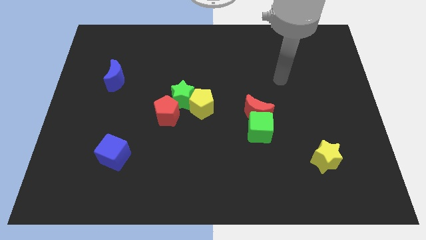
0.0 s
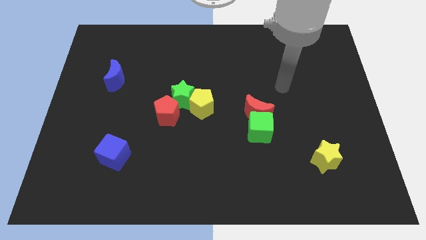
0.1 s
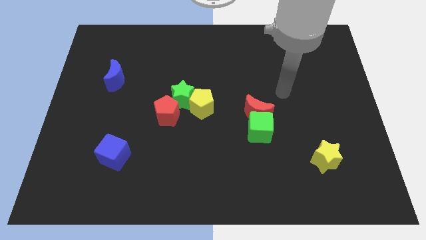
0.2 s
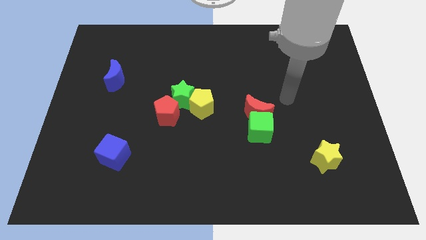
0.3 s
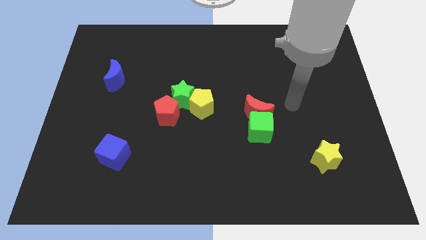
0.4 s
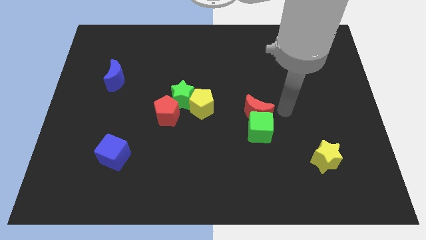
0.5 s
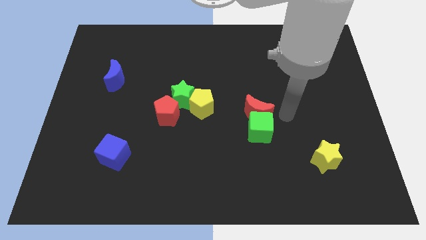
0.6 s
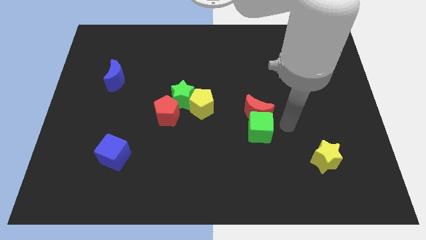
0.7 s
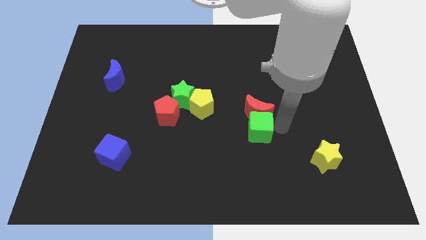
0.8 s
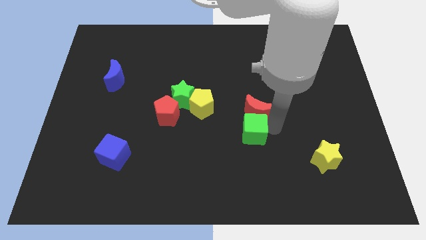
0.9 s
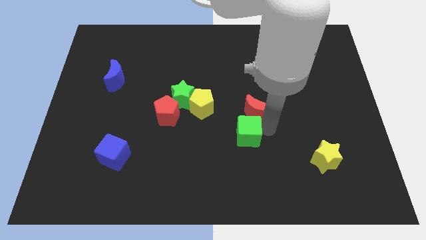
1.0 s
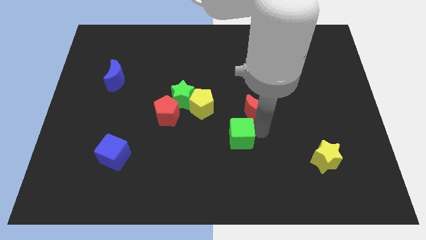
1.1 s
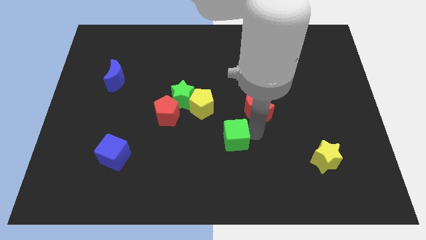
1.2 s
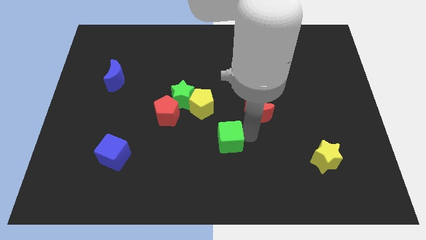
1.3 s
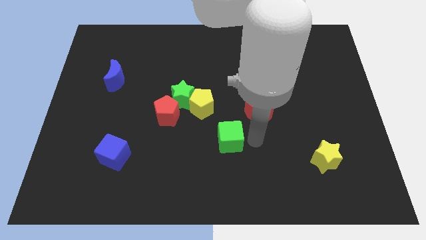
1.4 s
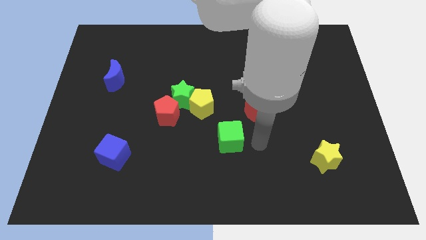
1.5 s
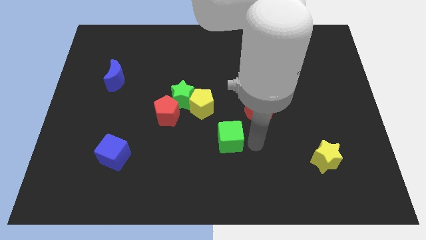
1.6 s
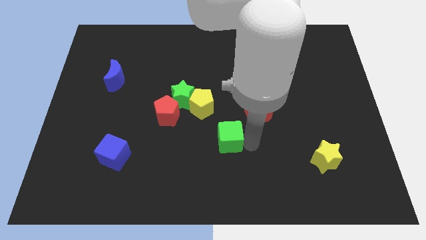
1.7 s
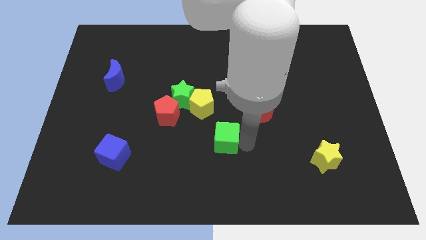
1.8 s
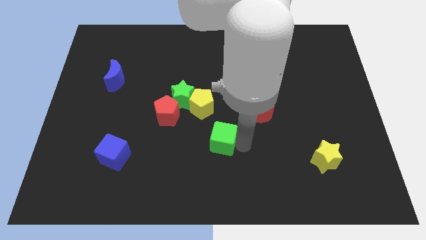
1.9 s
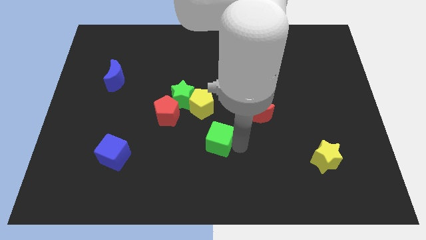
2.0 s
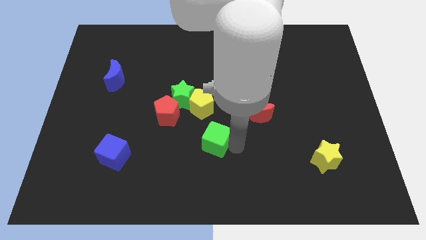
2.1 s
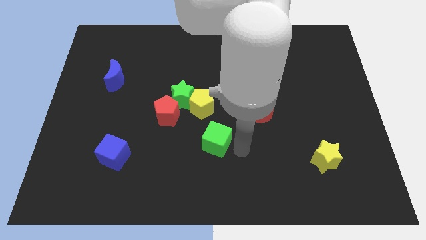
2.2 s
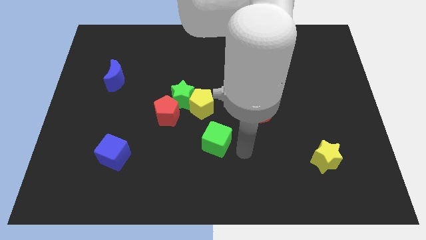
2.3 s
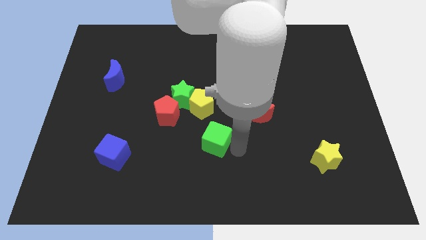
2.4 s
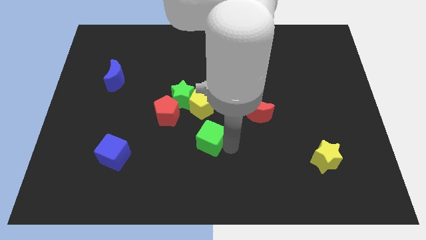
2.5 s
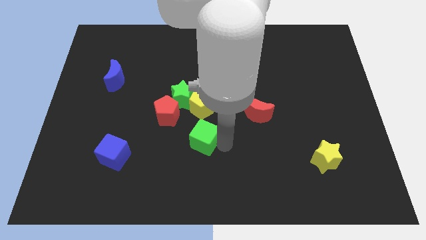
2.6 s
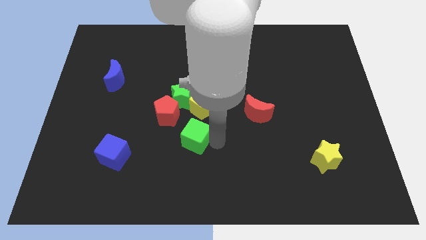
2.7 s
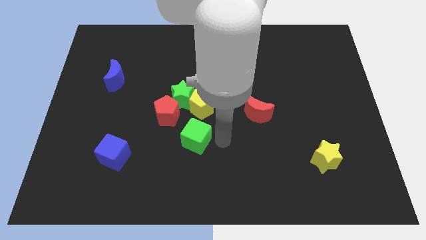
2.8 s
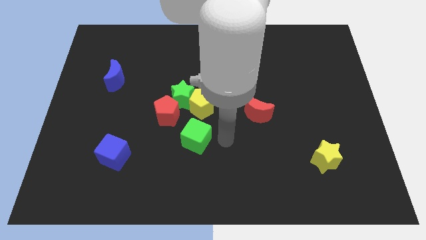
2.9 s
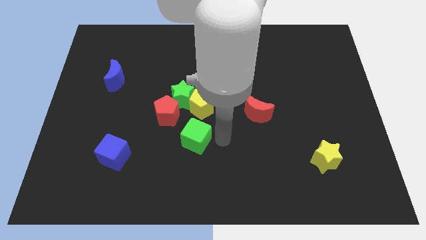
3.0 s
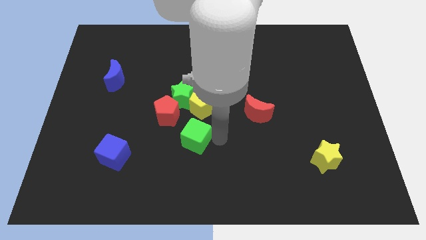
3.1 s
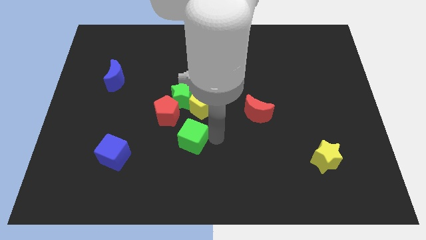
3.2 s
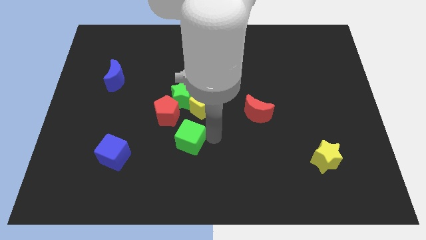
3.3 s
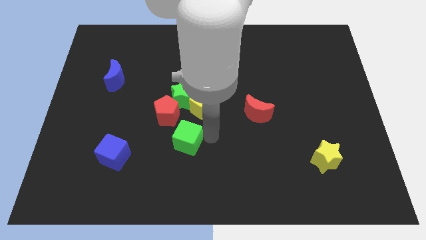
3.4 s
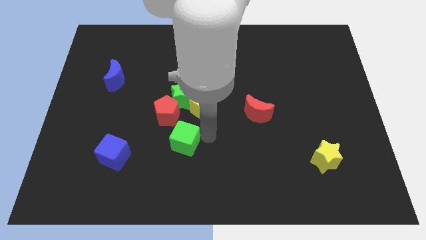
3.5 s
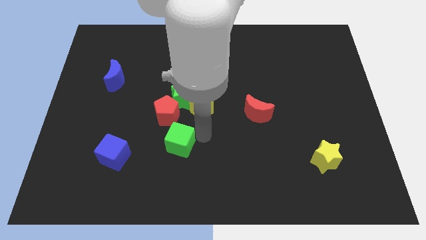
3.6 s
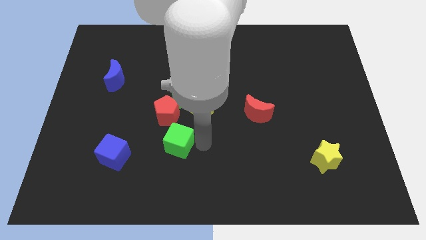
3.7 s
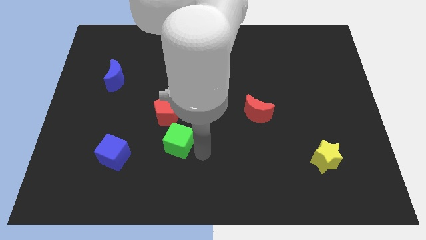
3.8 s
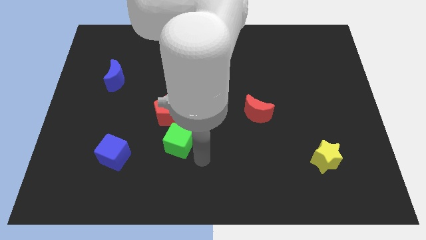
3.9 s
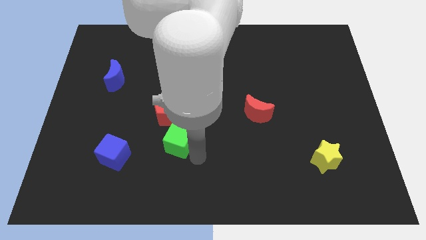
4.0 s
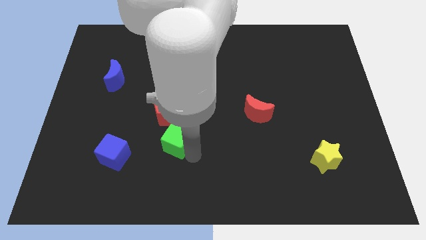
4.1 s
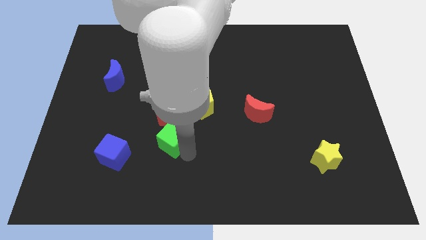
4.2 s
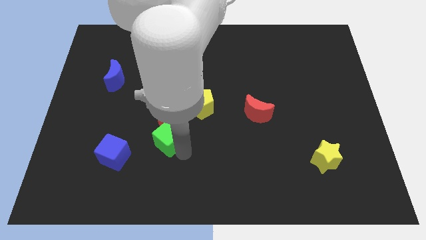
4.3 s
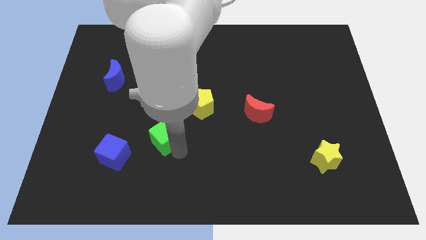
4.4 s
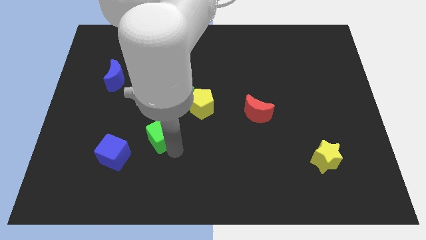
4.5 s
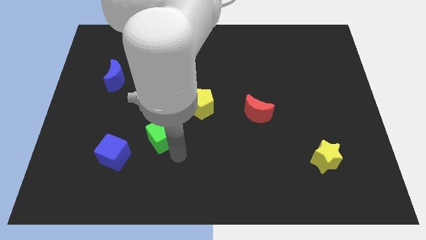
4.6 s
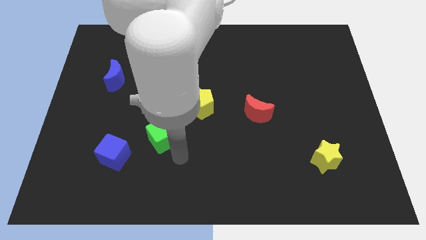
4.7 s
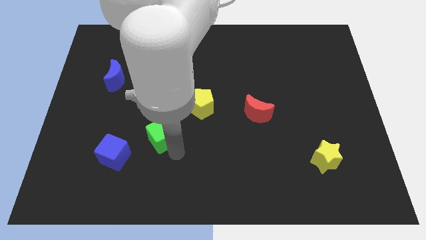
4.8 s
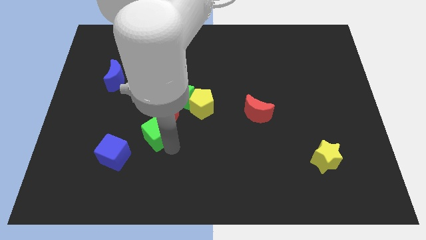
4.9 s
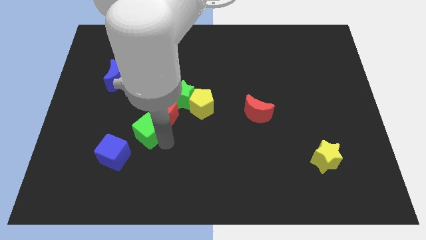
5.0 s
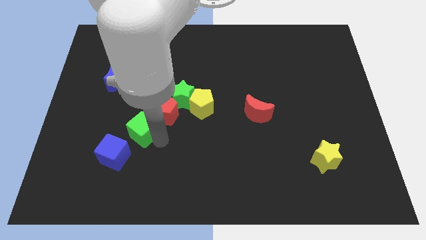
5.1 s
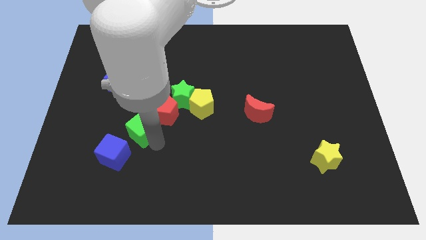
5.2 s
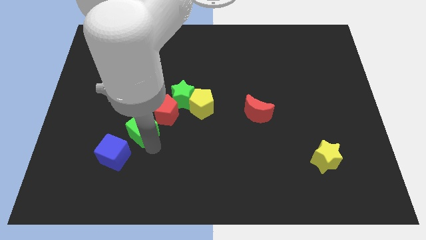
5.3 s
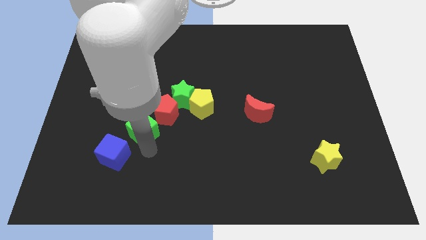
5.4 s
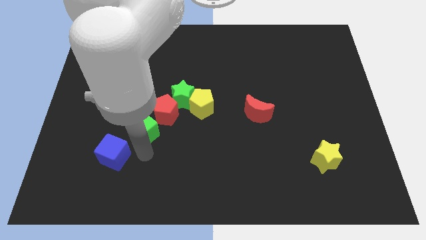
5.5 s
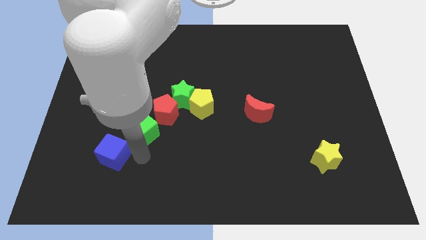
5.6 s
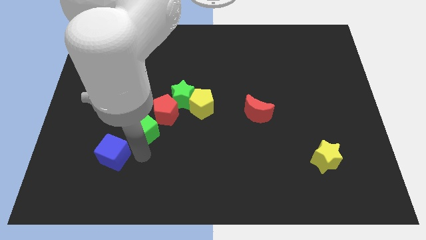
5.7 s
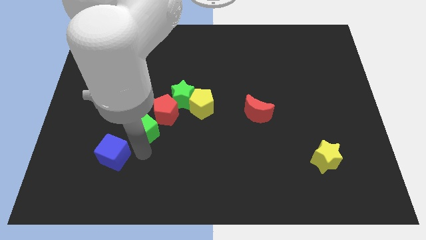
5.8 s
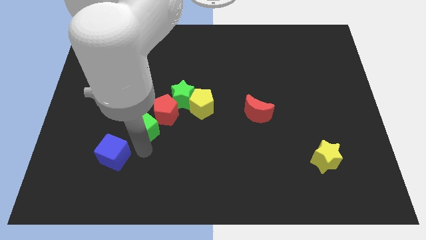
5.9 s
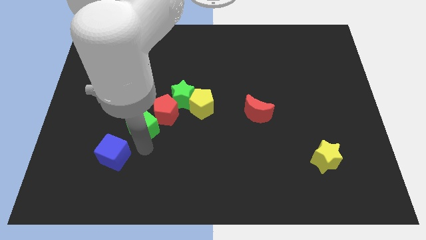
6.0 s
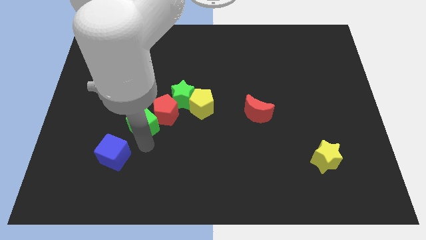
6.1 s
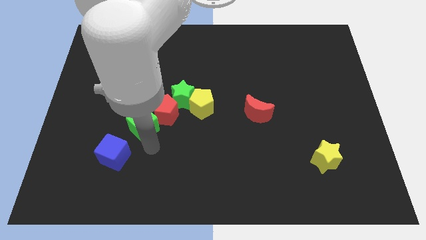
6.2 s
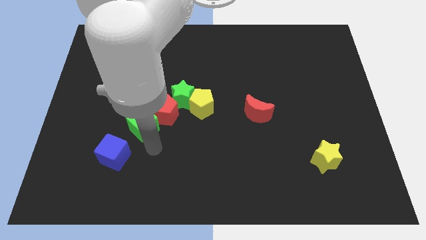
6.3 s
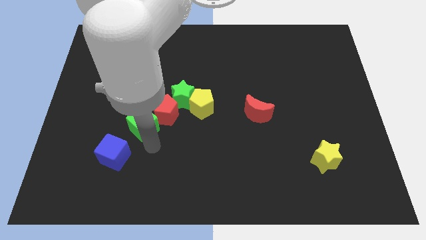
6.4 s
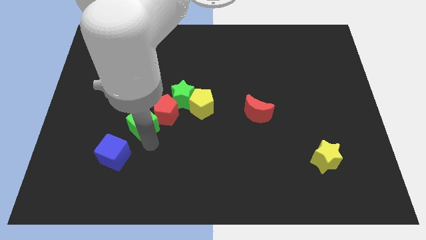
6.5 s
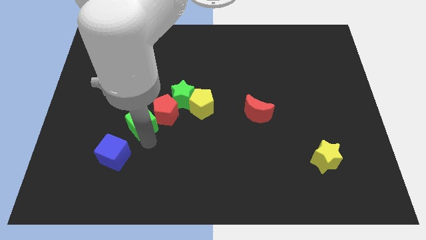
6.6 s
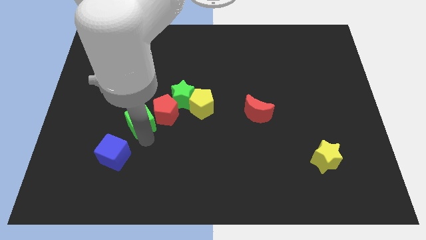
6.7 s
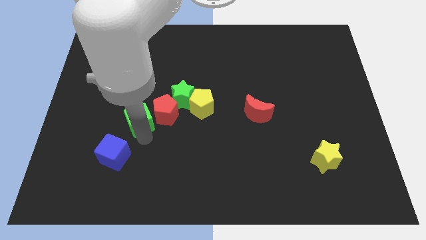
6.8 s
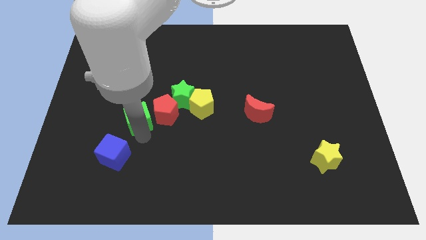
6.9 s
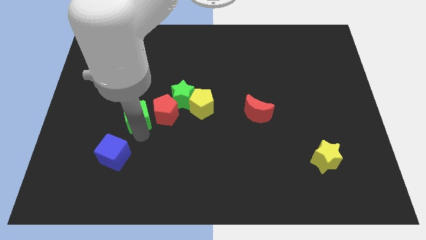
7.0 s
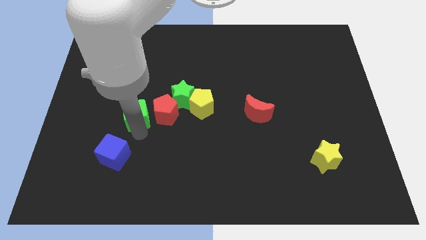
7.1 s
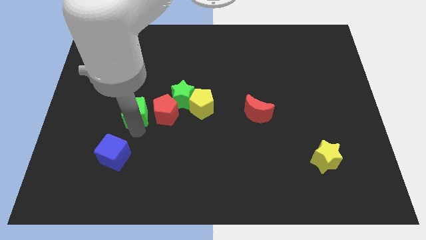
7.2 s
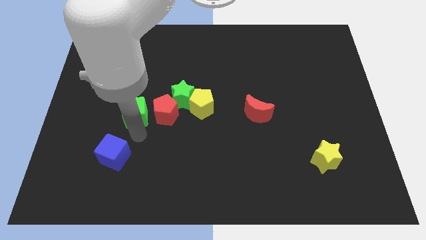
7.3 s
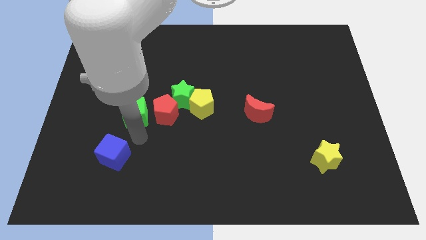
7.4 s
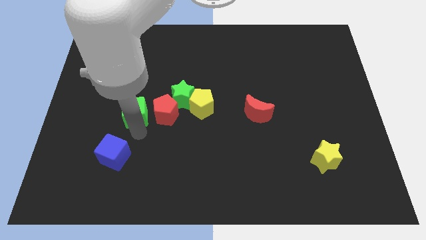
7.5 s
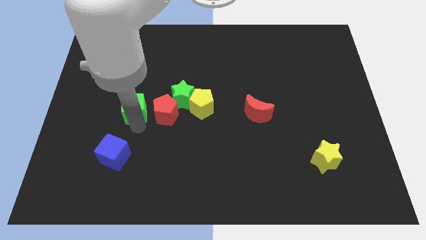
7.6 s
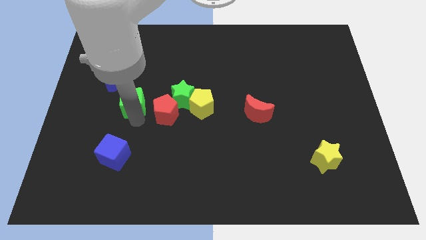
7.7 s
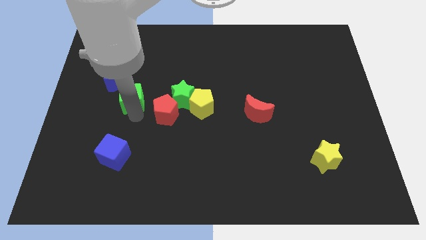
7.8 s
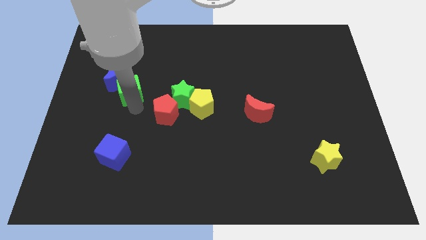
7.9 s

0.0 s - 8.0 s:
push the green cube close to the blue moon
